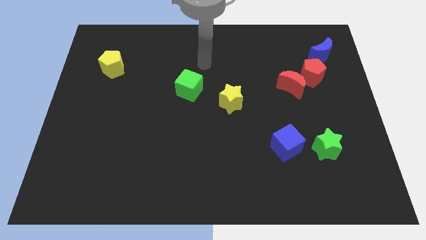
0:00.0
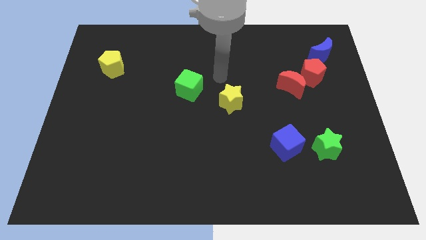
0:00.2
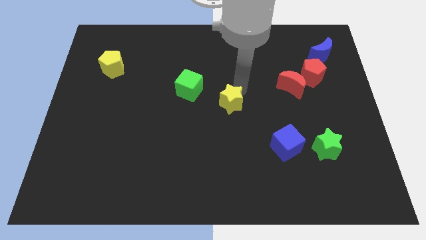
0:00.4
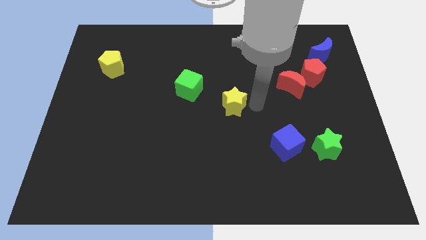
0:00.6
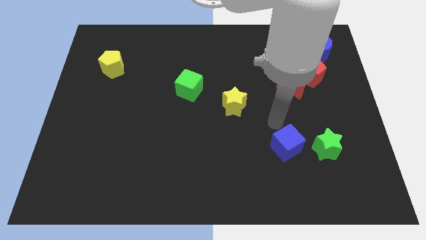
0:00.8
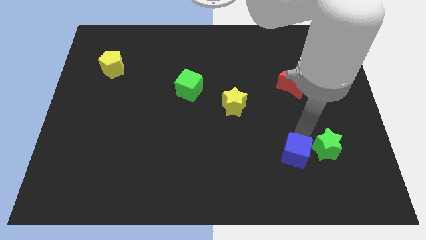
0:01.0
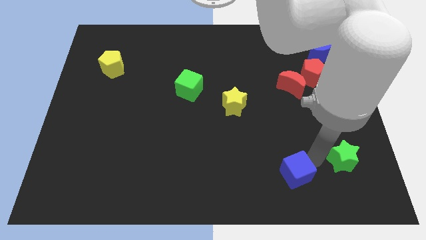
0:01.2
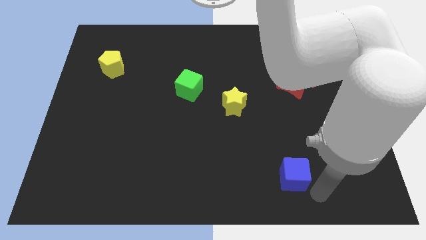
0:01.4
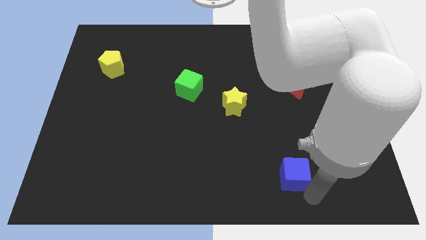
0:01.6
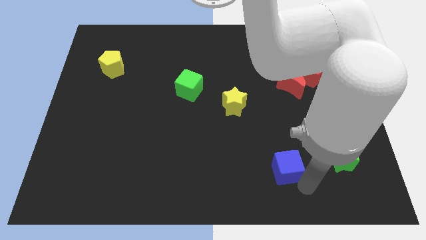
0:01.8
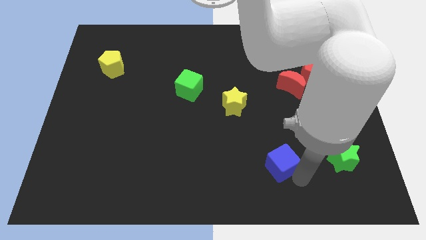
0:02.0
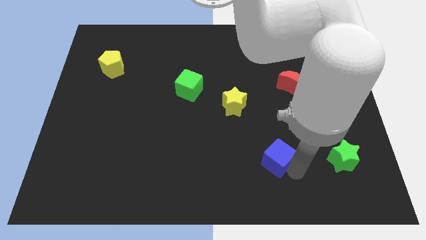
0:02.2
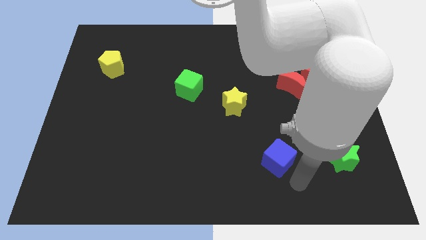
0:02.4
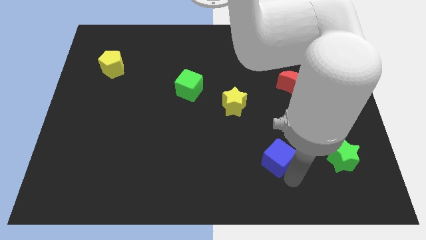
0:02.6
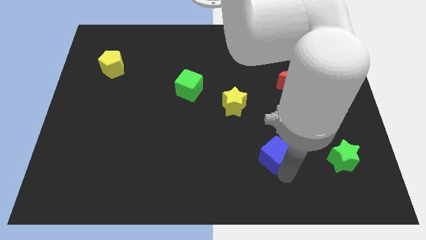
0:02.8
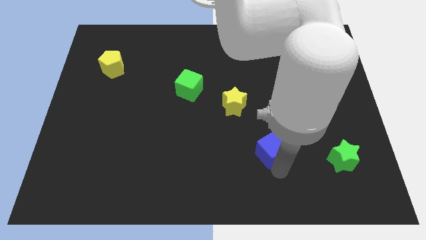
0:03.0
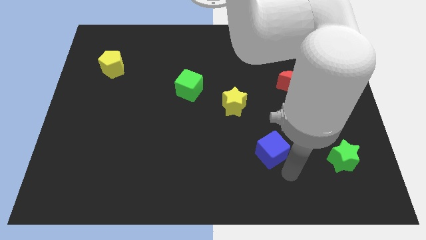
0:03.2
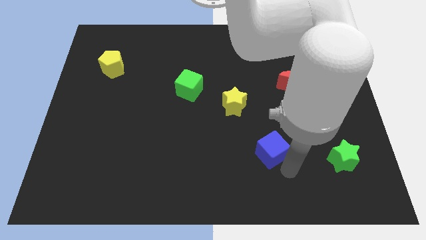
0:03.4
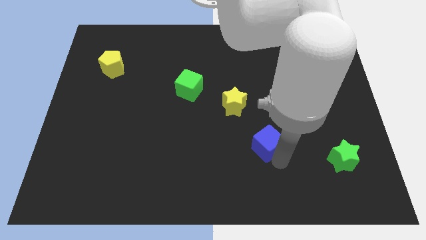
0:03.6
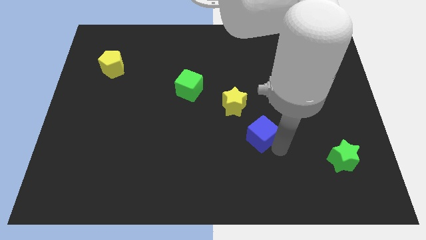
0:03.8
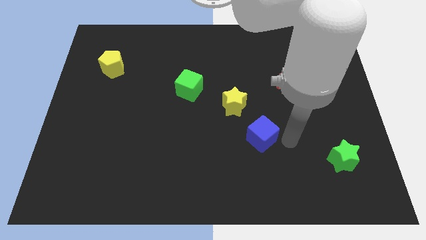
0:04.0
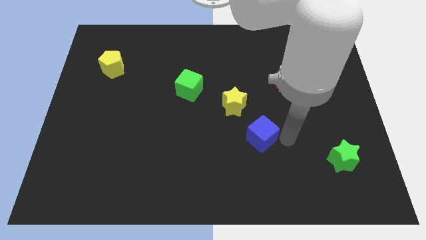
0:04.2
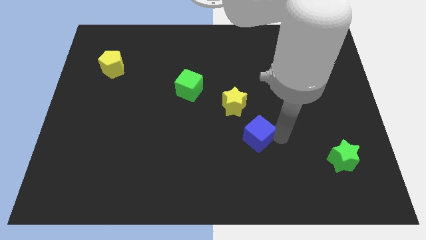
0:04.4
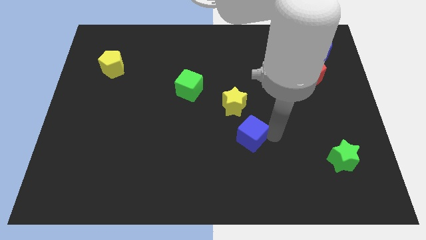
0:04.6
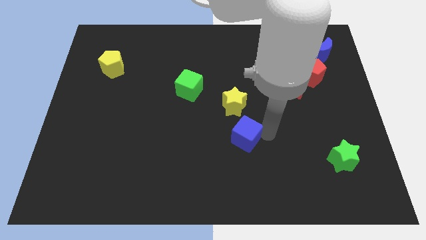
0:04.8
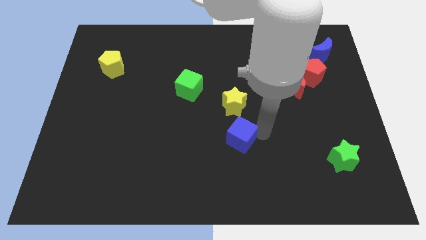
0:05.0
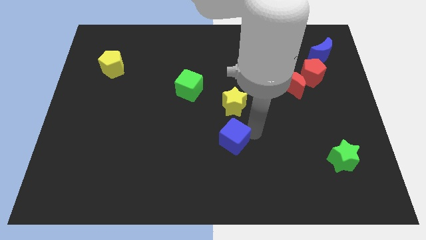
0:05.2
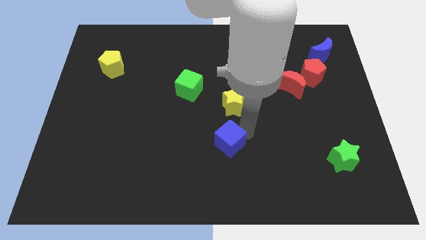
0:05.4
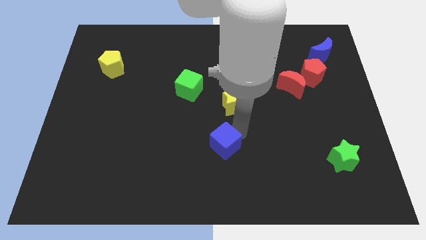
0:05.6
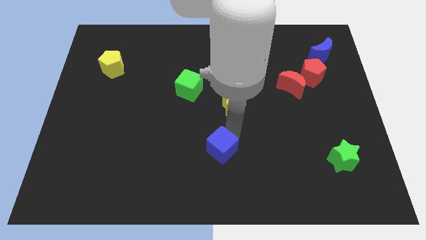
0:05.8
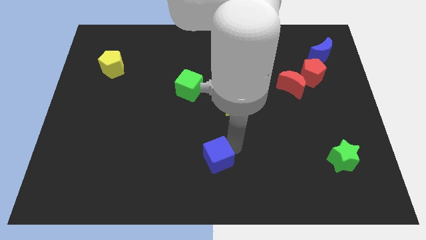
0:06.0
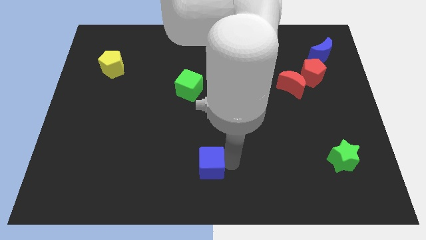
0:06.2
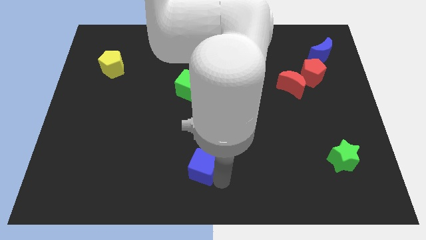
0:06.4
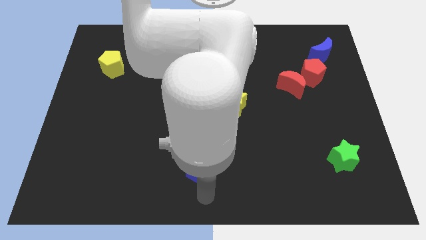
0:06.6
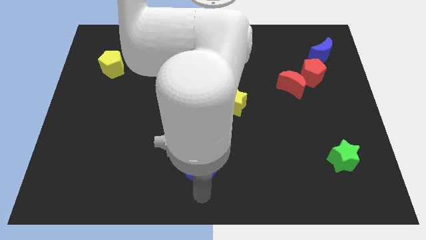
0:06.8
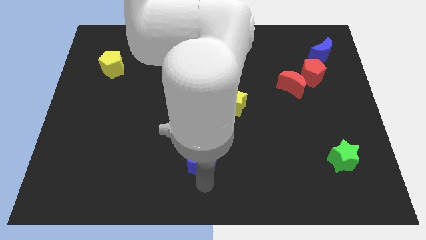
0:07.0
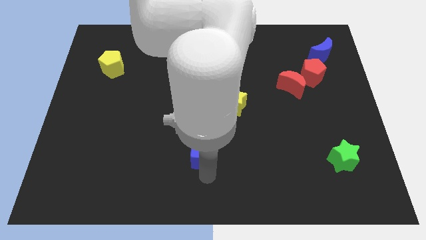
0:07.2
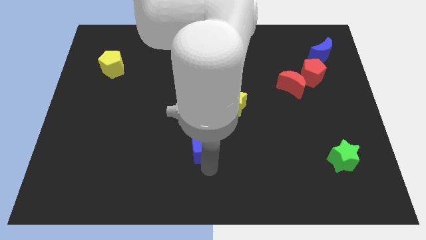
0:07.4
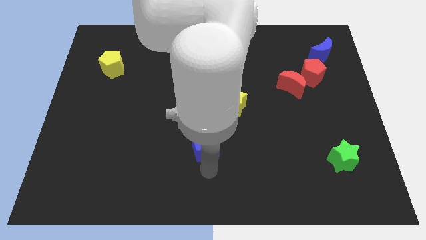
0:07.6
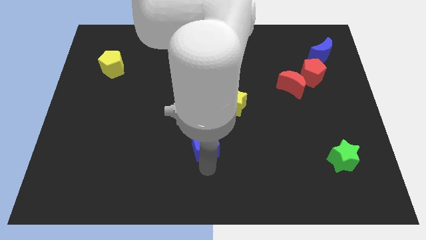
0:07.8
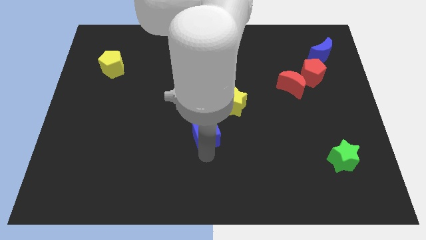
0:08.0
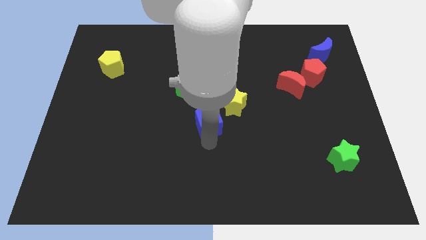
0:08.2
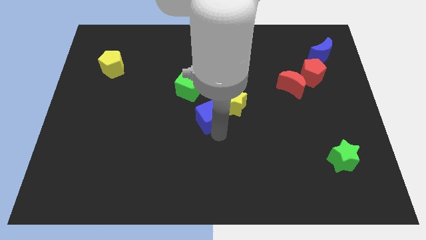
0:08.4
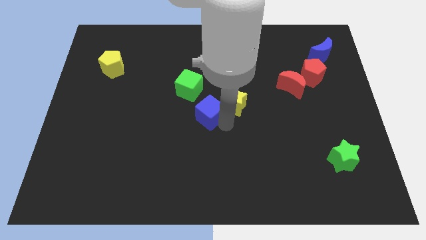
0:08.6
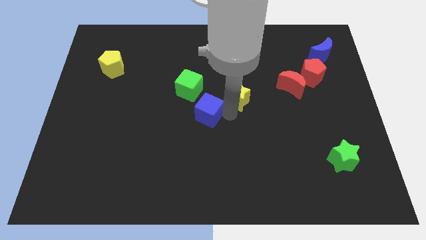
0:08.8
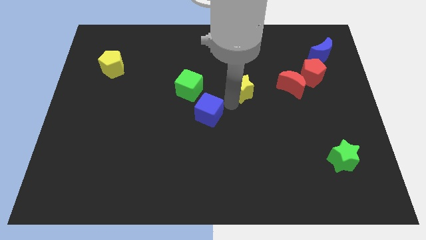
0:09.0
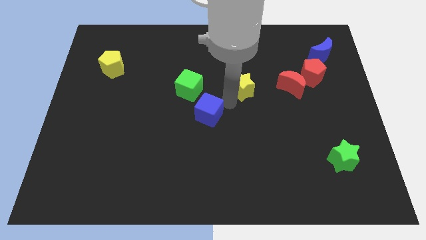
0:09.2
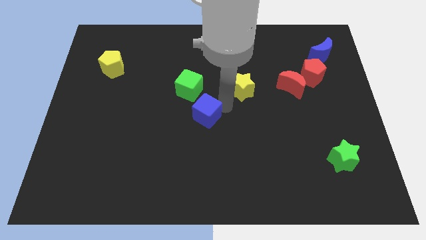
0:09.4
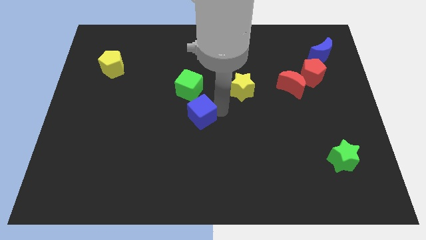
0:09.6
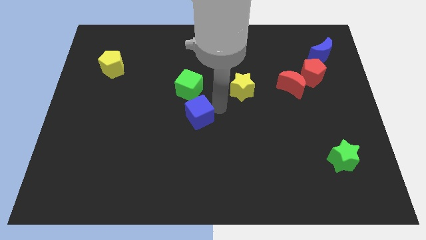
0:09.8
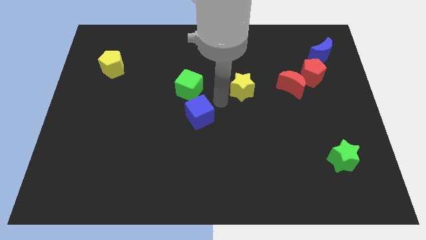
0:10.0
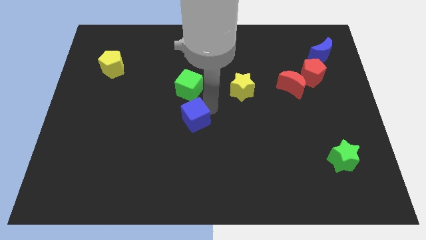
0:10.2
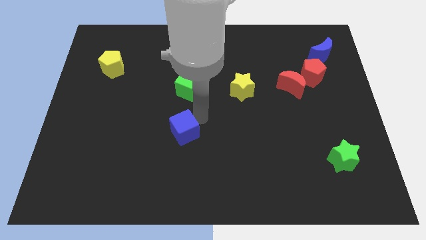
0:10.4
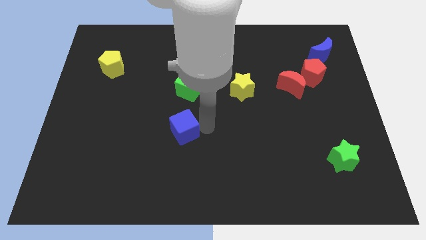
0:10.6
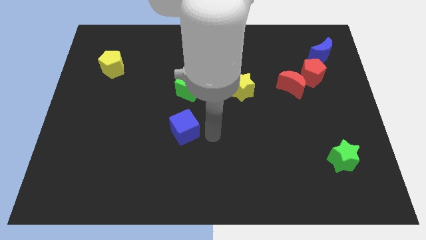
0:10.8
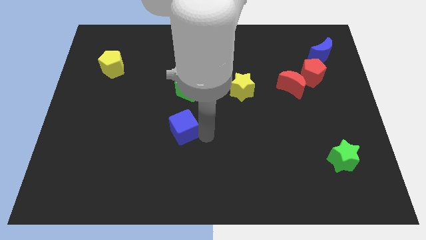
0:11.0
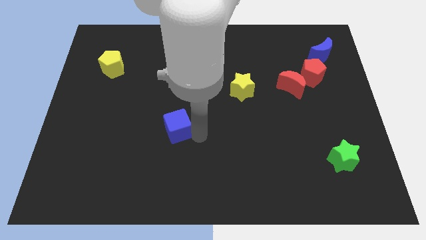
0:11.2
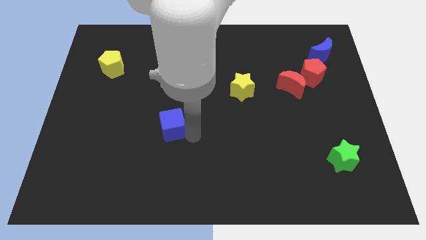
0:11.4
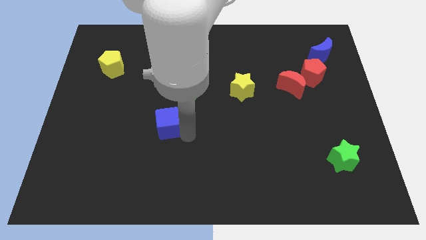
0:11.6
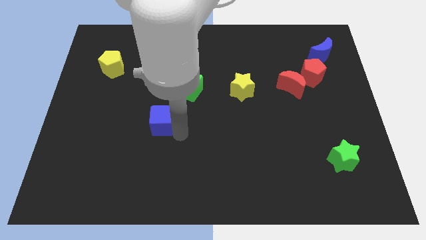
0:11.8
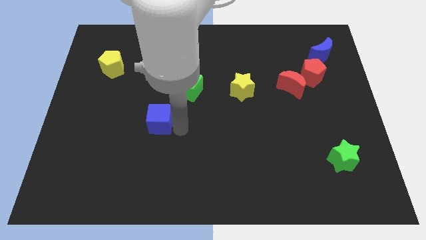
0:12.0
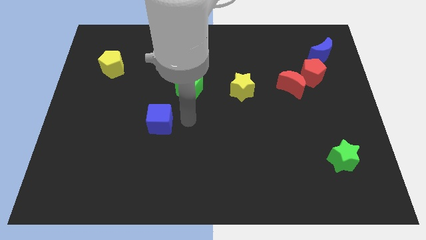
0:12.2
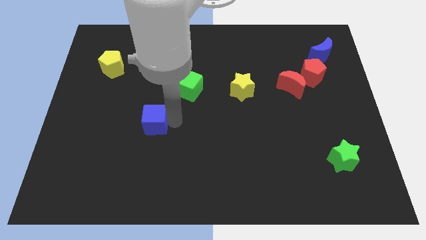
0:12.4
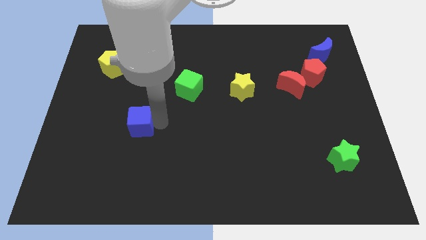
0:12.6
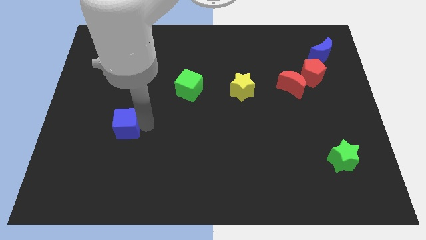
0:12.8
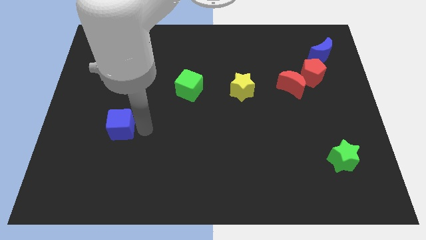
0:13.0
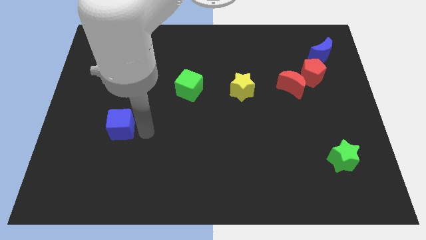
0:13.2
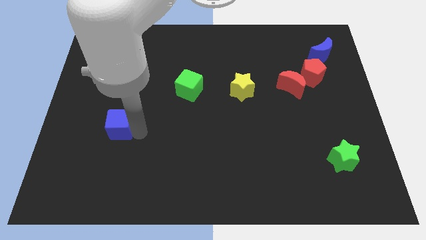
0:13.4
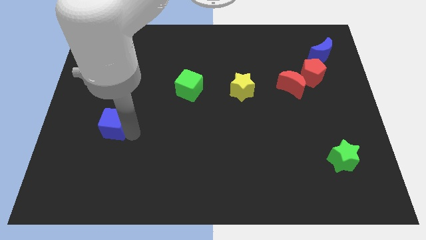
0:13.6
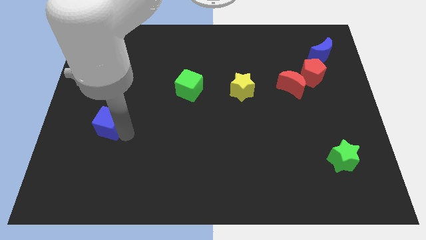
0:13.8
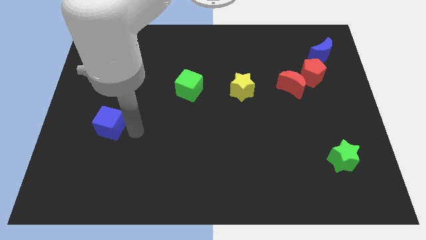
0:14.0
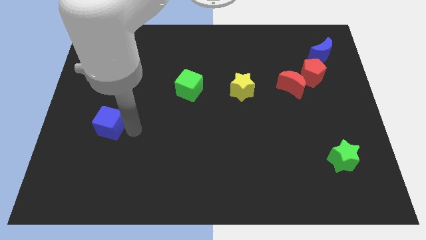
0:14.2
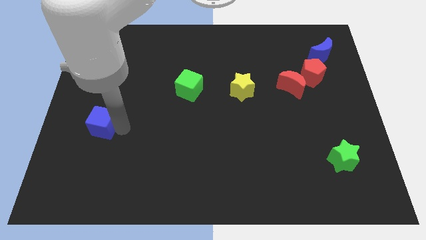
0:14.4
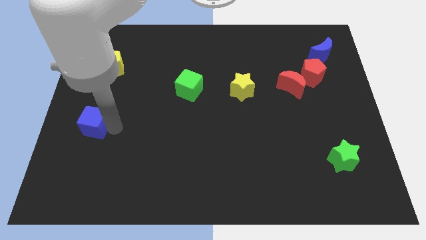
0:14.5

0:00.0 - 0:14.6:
move the blue cube to the center left
